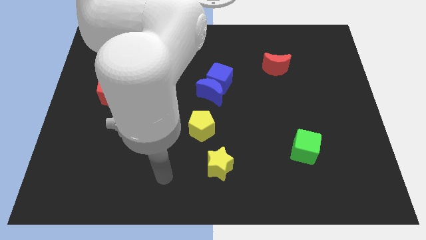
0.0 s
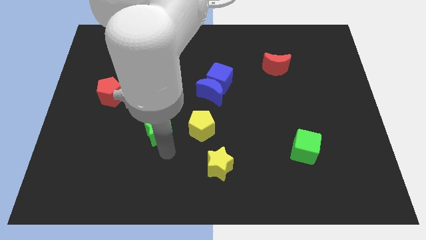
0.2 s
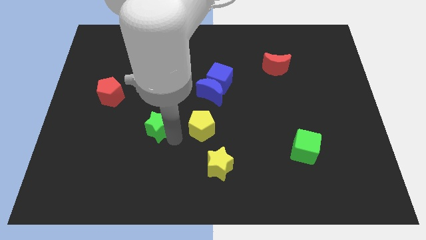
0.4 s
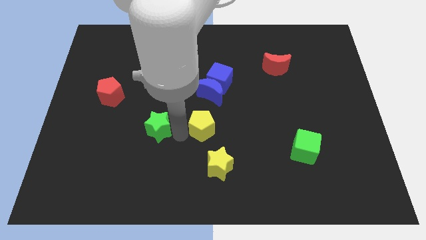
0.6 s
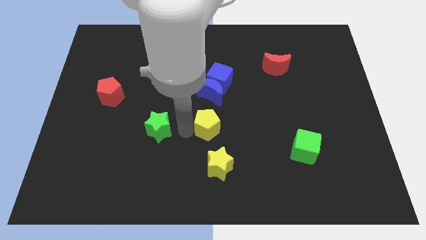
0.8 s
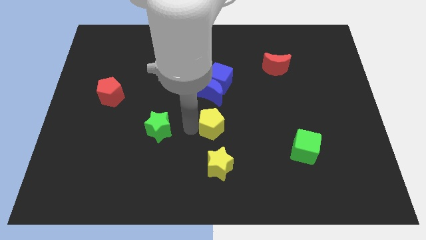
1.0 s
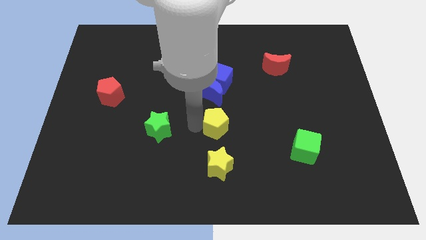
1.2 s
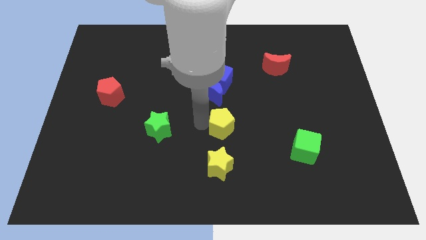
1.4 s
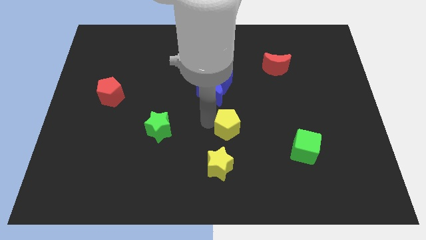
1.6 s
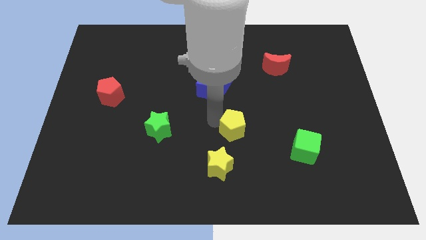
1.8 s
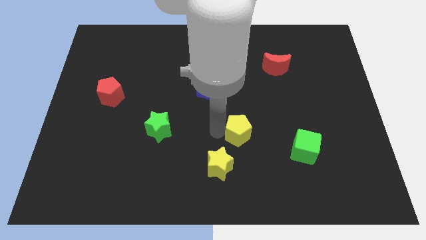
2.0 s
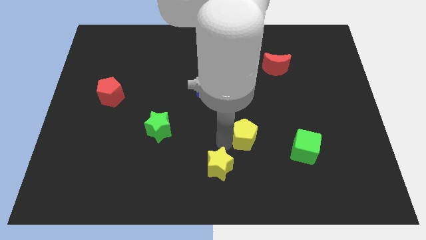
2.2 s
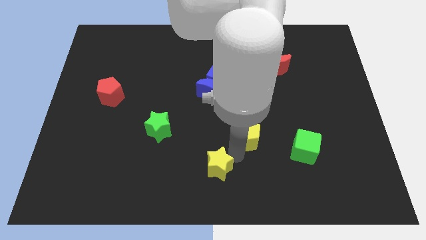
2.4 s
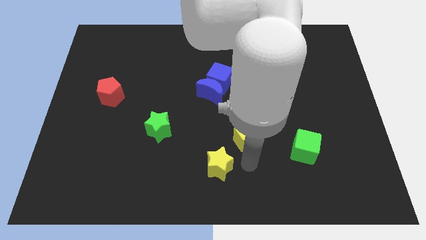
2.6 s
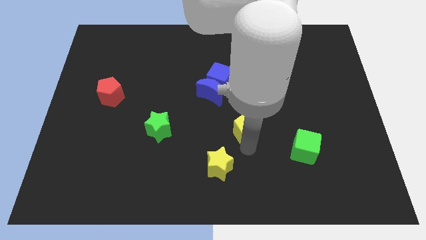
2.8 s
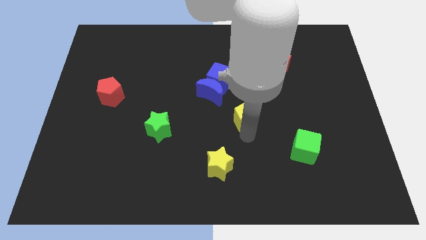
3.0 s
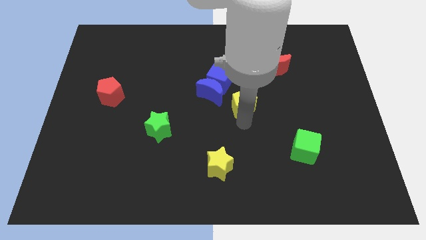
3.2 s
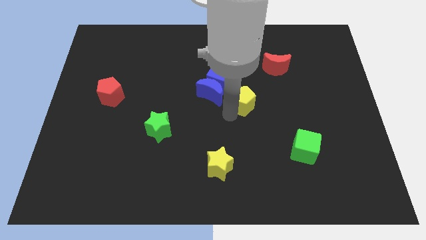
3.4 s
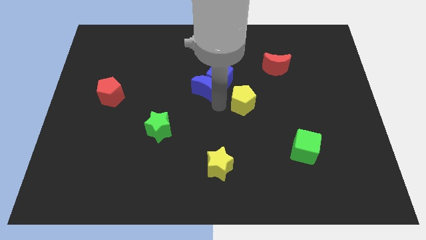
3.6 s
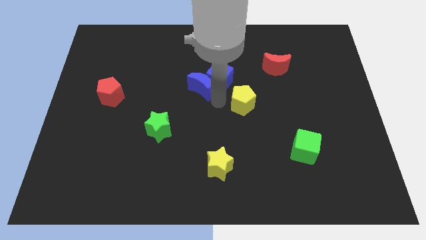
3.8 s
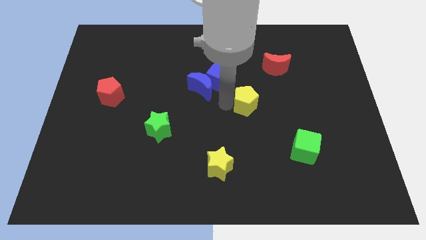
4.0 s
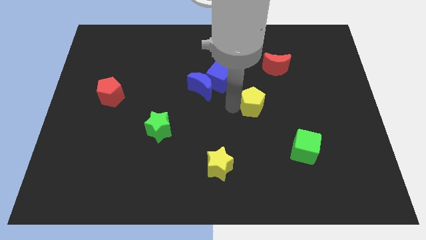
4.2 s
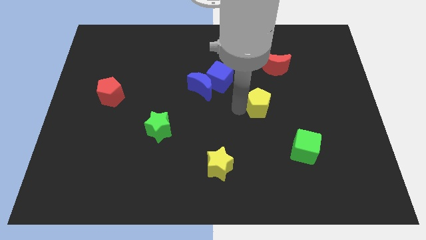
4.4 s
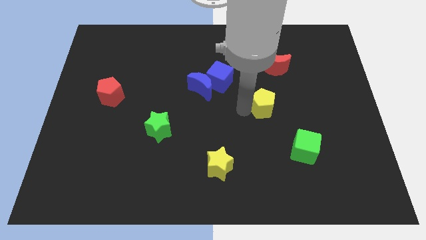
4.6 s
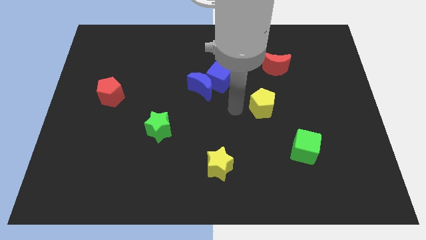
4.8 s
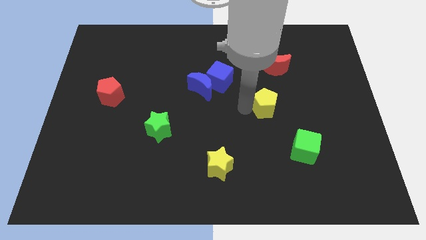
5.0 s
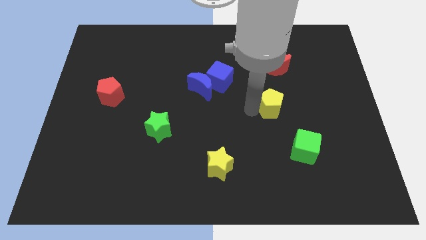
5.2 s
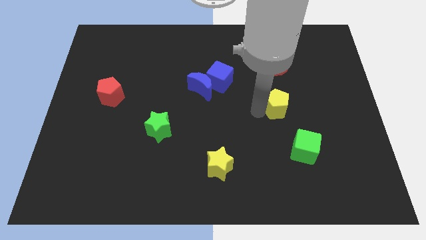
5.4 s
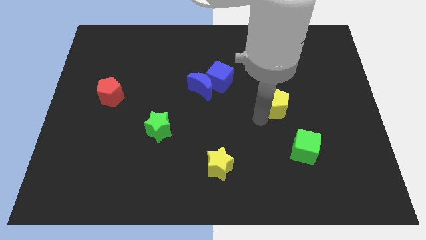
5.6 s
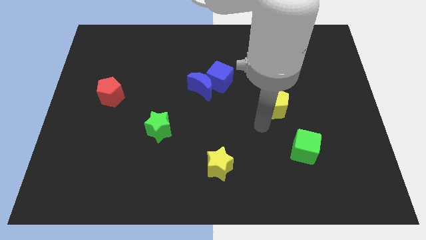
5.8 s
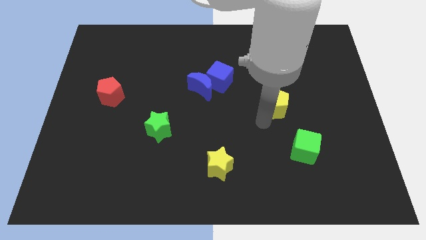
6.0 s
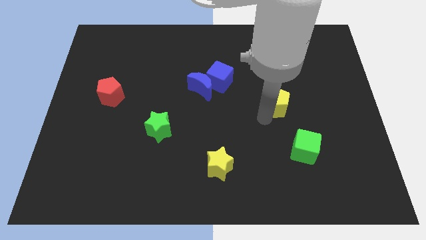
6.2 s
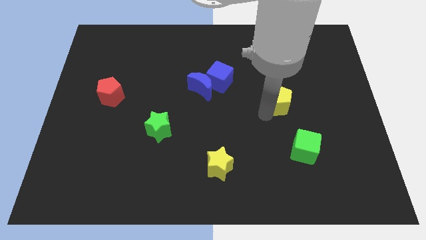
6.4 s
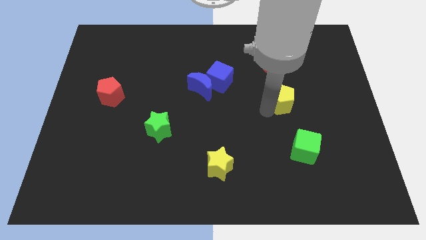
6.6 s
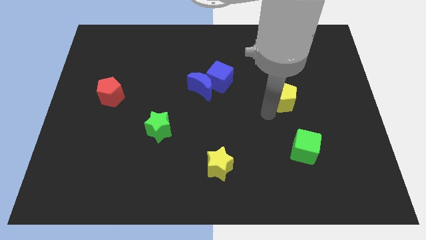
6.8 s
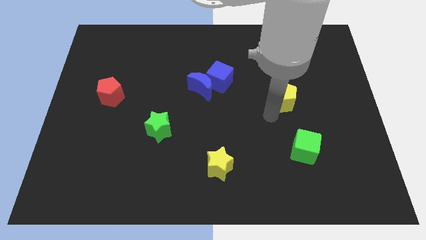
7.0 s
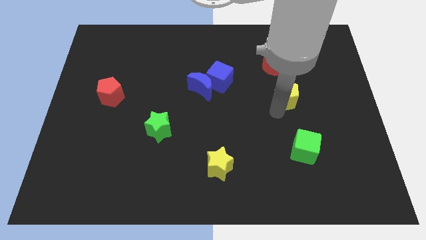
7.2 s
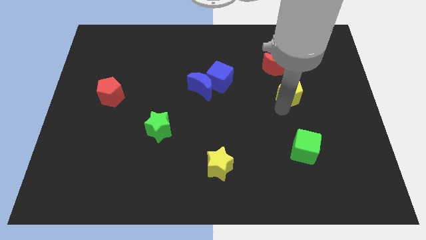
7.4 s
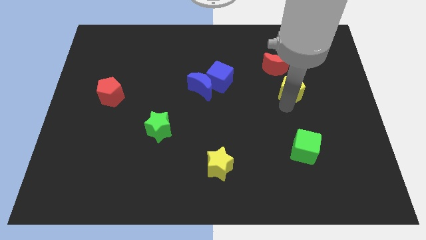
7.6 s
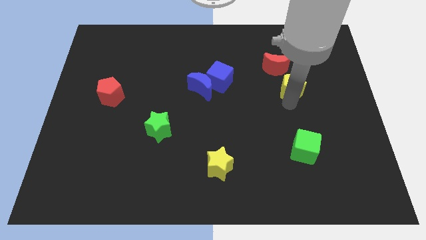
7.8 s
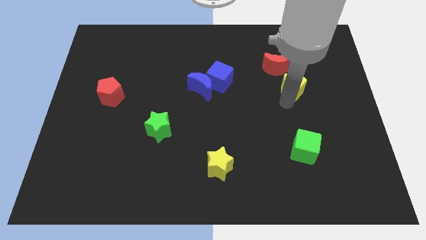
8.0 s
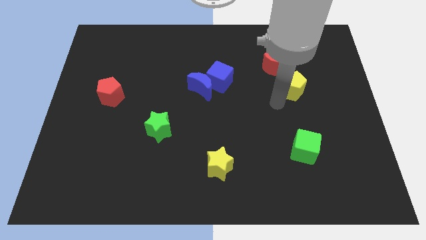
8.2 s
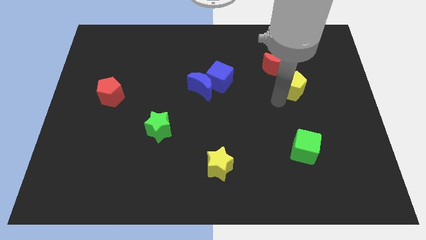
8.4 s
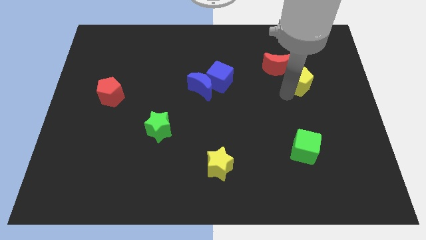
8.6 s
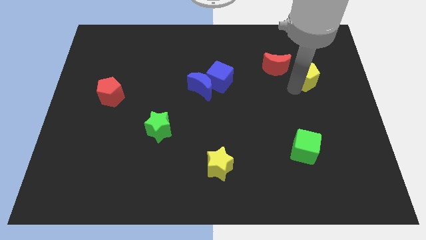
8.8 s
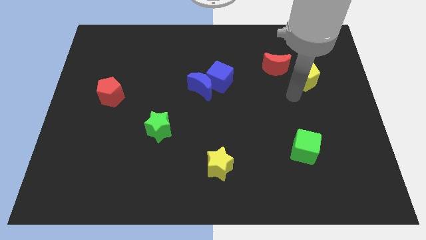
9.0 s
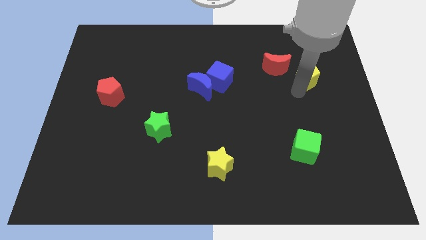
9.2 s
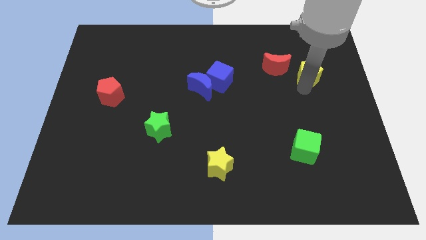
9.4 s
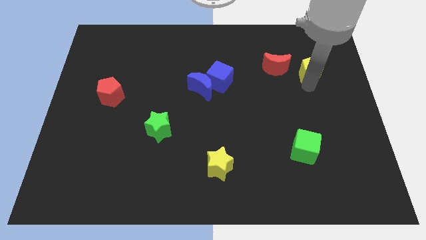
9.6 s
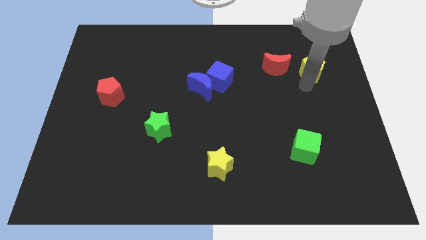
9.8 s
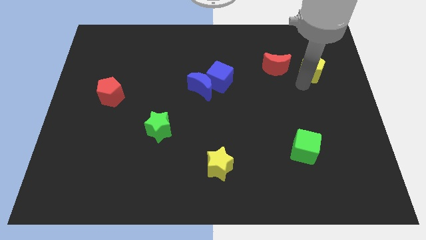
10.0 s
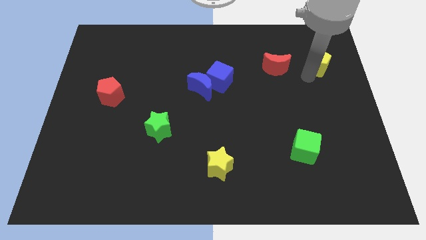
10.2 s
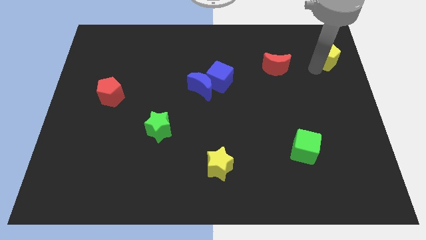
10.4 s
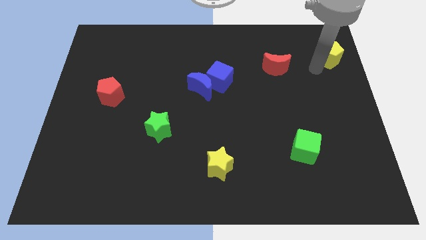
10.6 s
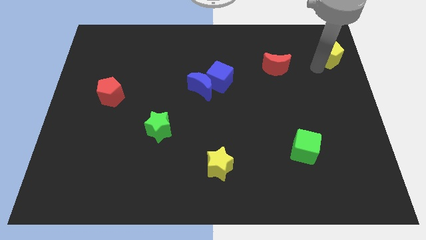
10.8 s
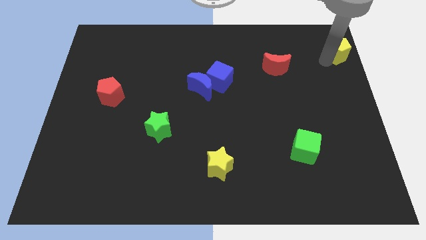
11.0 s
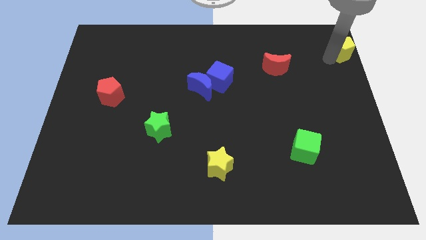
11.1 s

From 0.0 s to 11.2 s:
put the yellow pentagon to the top right corner
